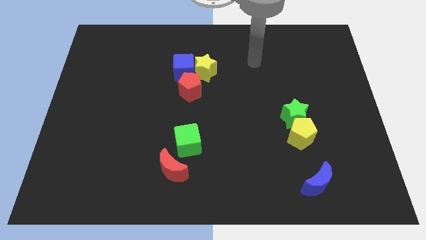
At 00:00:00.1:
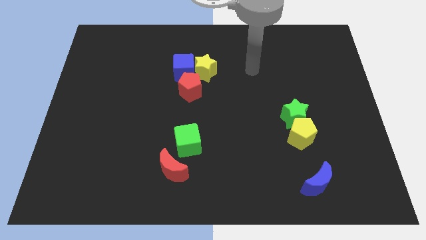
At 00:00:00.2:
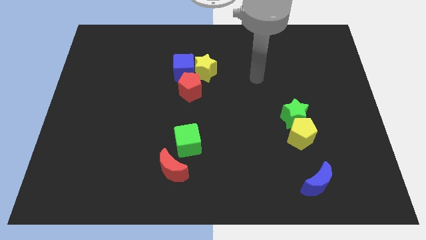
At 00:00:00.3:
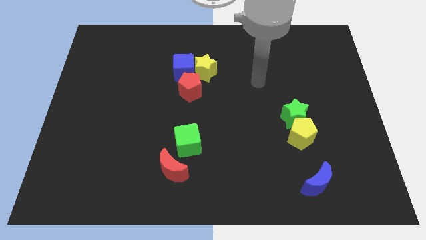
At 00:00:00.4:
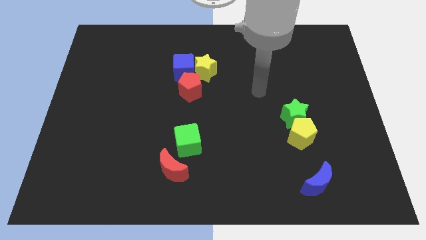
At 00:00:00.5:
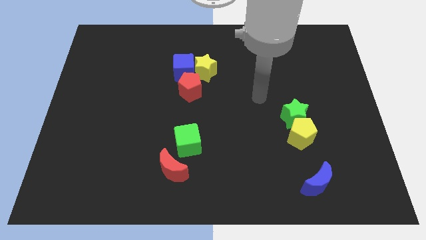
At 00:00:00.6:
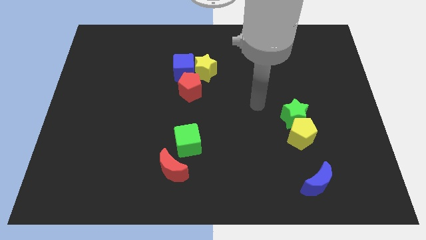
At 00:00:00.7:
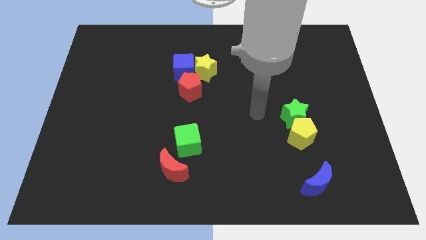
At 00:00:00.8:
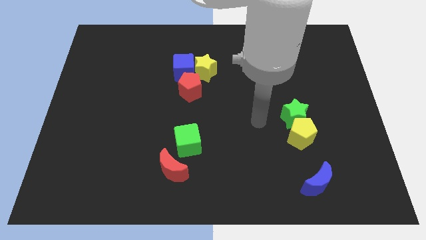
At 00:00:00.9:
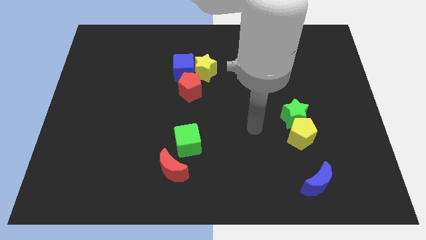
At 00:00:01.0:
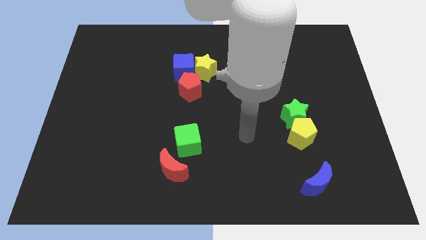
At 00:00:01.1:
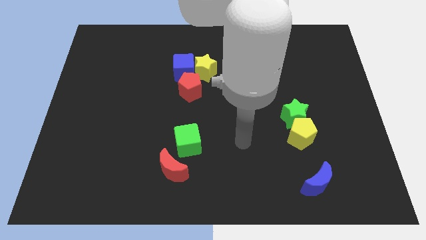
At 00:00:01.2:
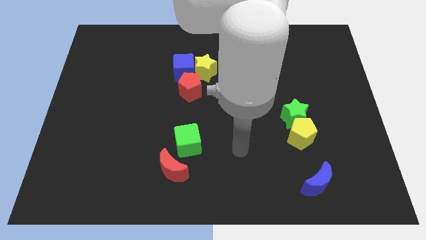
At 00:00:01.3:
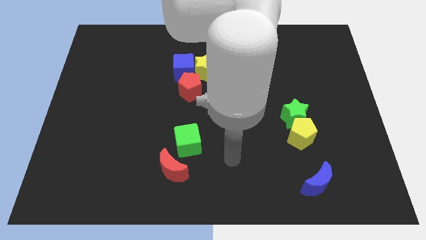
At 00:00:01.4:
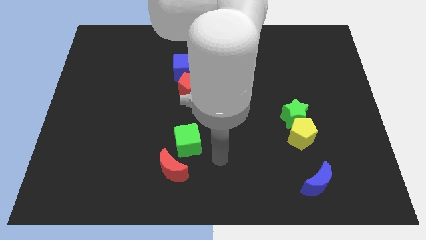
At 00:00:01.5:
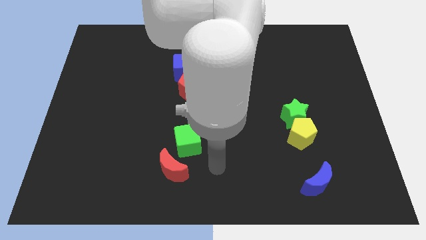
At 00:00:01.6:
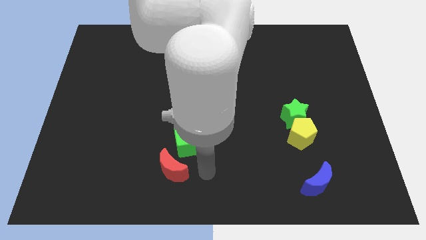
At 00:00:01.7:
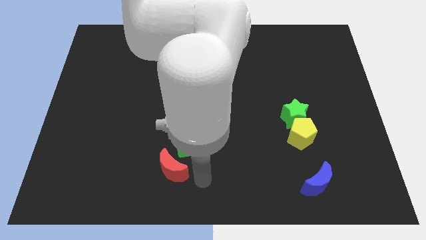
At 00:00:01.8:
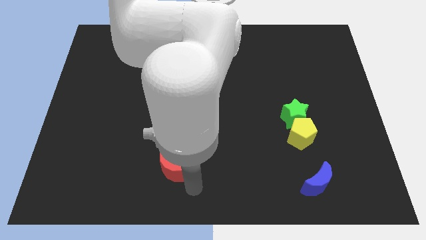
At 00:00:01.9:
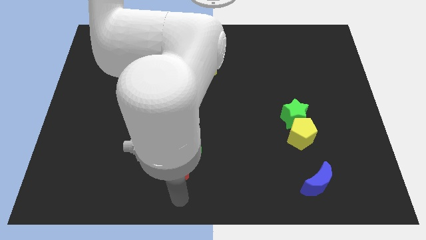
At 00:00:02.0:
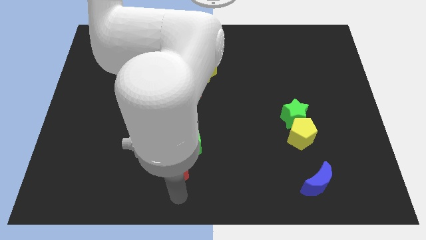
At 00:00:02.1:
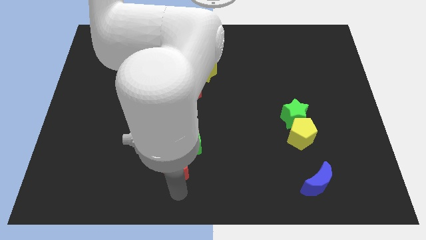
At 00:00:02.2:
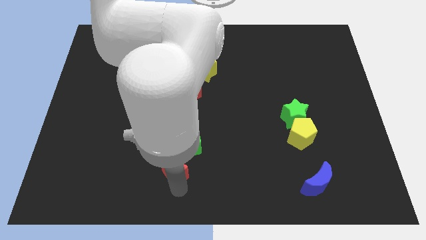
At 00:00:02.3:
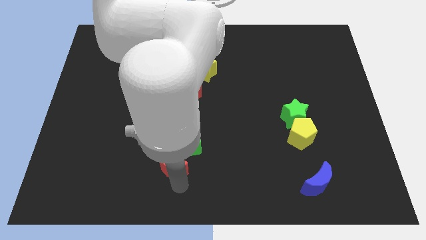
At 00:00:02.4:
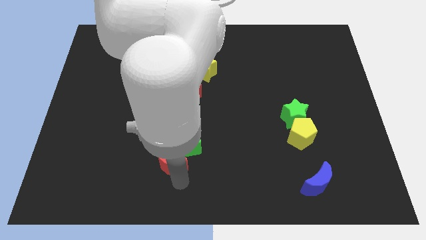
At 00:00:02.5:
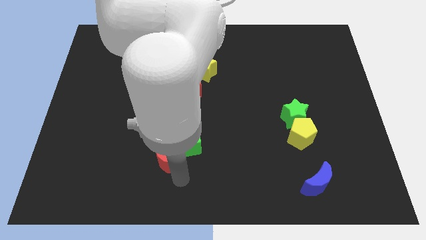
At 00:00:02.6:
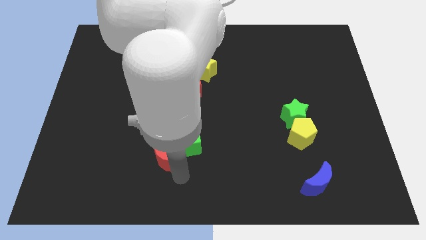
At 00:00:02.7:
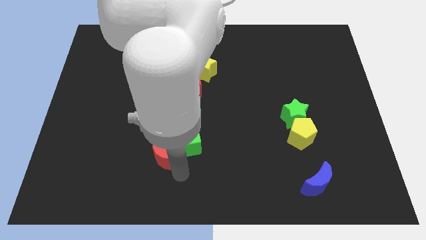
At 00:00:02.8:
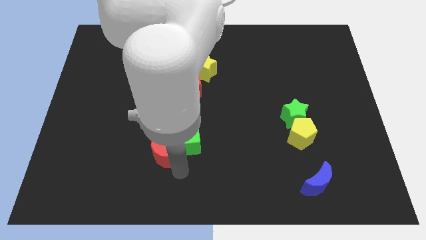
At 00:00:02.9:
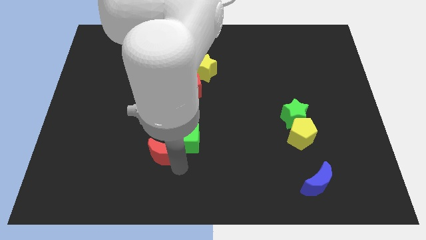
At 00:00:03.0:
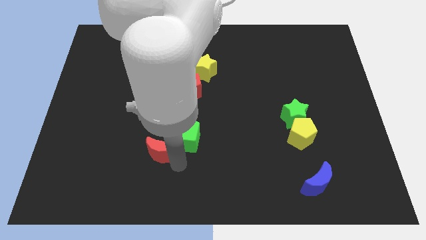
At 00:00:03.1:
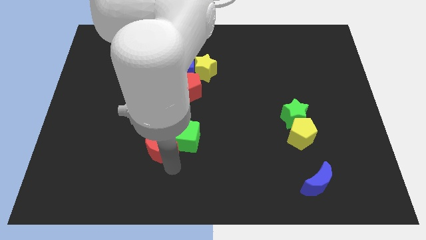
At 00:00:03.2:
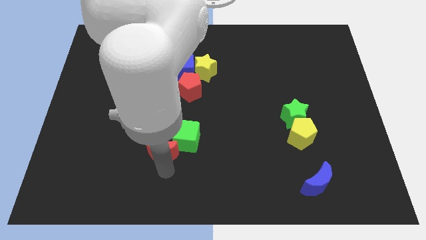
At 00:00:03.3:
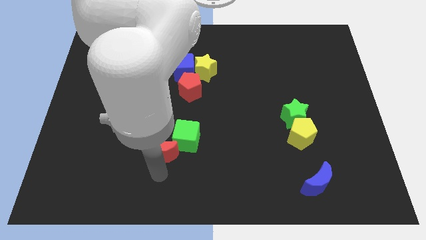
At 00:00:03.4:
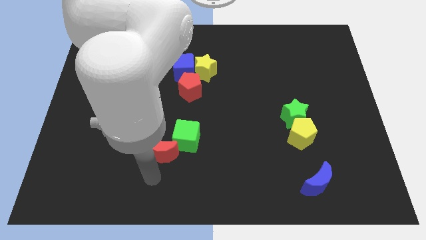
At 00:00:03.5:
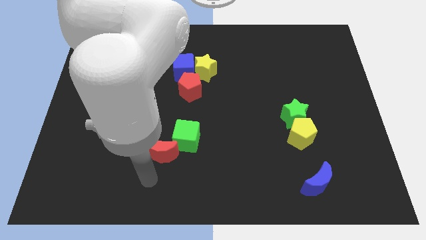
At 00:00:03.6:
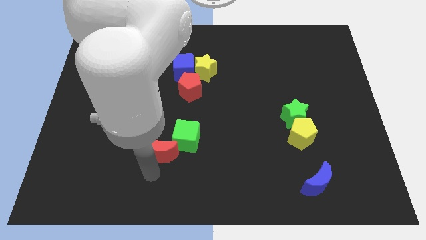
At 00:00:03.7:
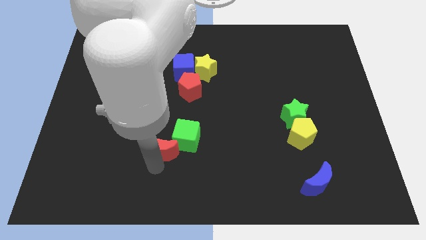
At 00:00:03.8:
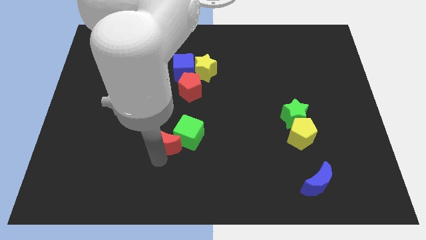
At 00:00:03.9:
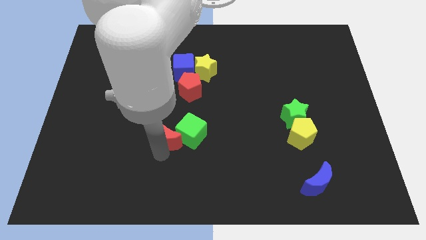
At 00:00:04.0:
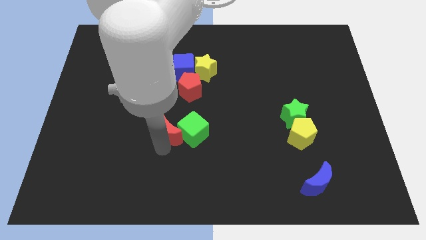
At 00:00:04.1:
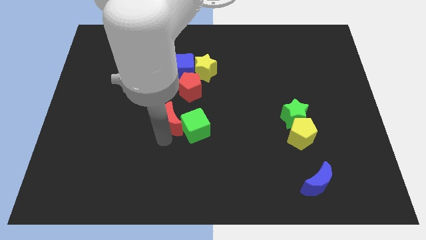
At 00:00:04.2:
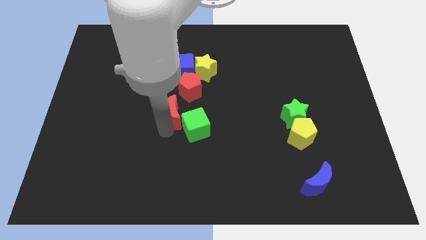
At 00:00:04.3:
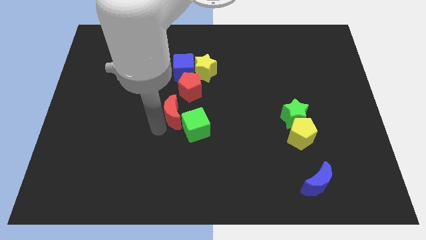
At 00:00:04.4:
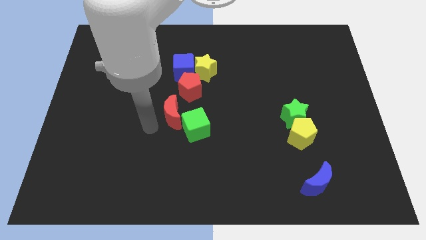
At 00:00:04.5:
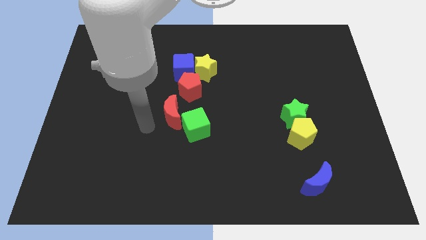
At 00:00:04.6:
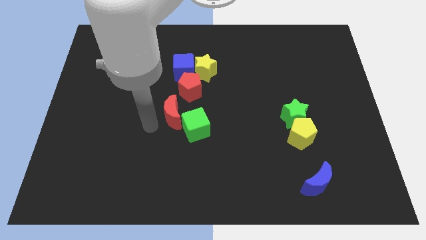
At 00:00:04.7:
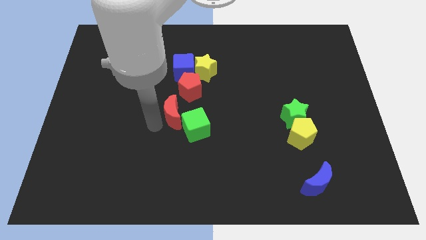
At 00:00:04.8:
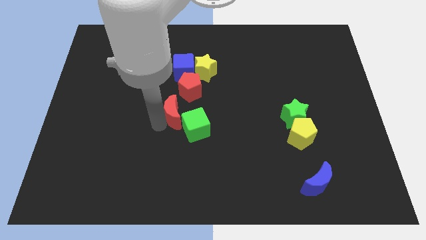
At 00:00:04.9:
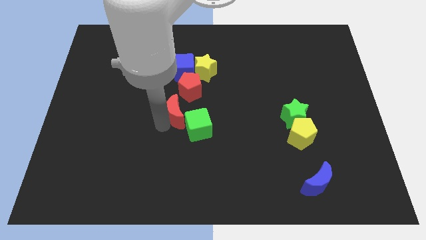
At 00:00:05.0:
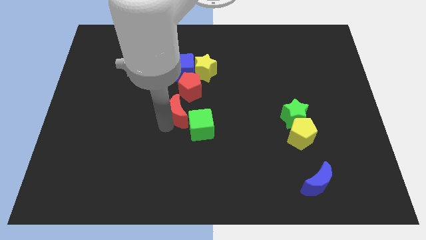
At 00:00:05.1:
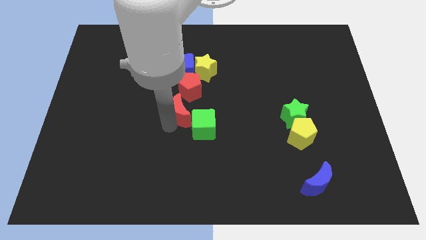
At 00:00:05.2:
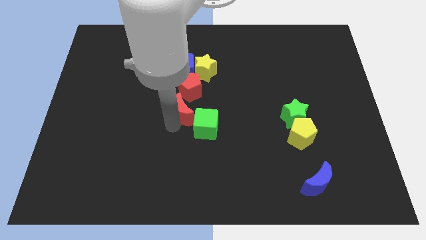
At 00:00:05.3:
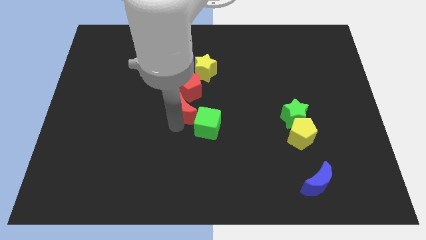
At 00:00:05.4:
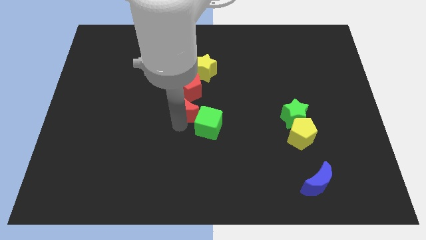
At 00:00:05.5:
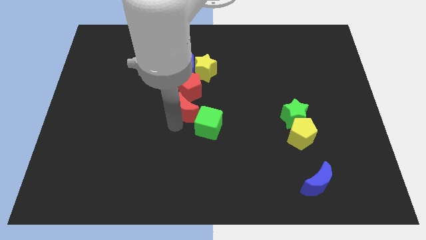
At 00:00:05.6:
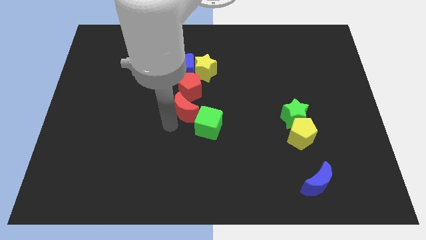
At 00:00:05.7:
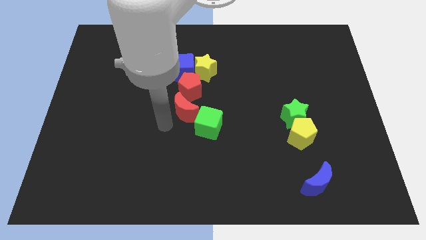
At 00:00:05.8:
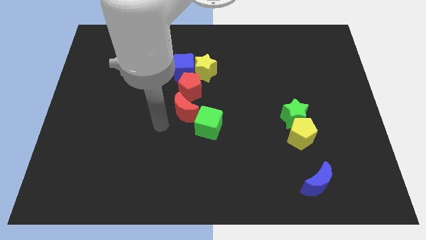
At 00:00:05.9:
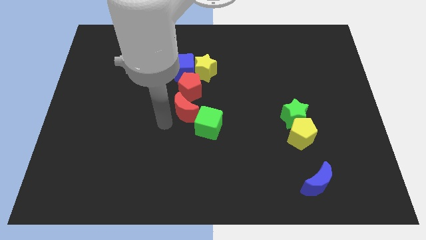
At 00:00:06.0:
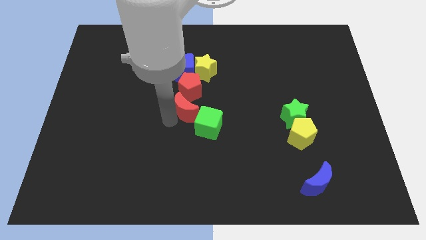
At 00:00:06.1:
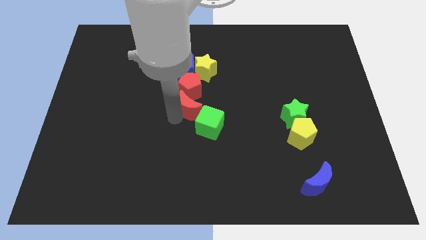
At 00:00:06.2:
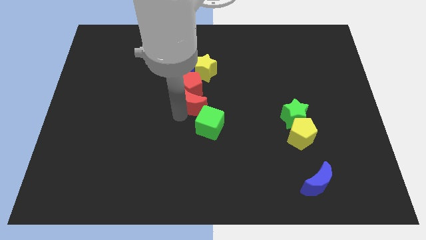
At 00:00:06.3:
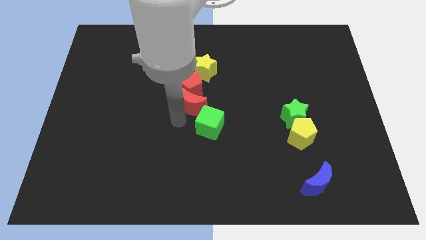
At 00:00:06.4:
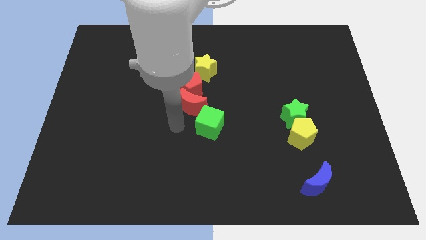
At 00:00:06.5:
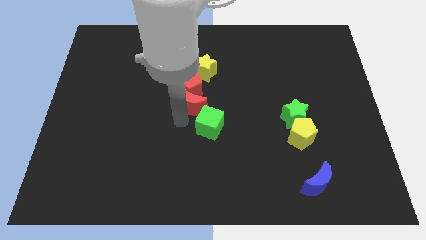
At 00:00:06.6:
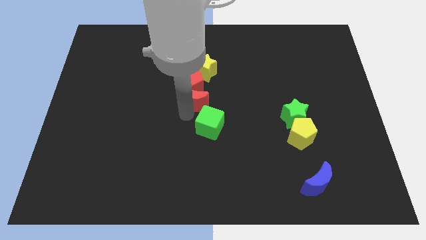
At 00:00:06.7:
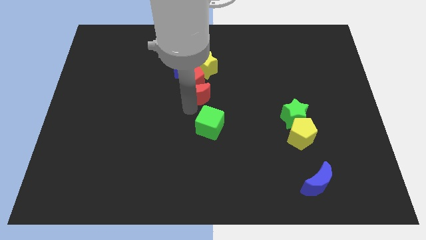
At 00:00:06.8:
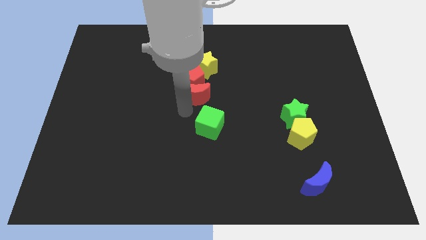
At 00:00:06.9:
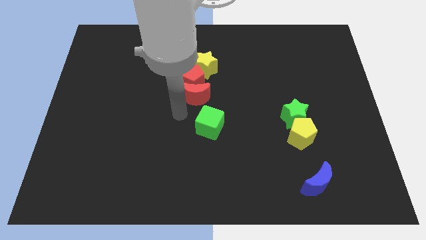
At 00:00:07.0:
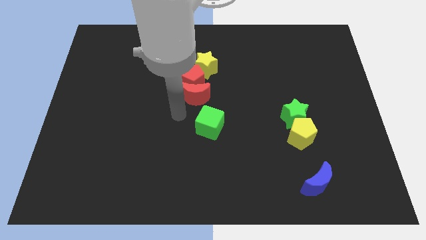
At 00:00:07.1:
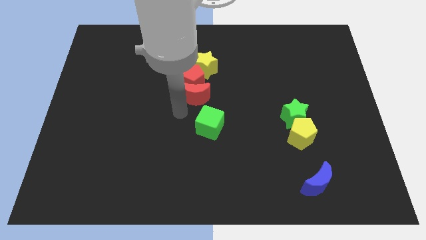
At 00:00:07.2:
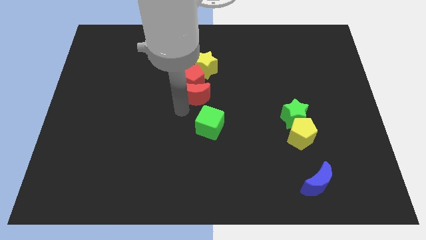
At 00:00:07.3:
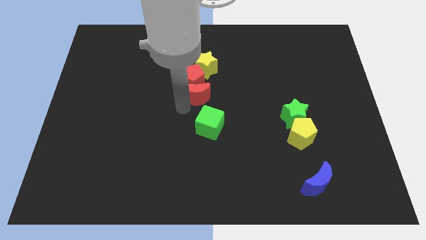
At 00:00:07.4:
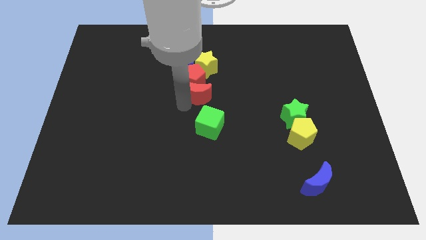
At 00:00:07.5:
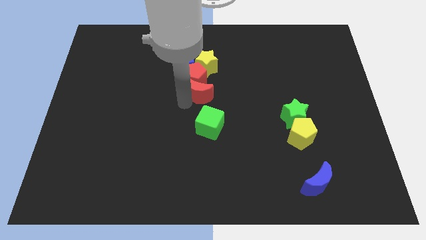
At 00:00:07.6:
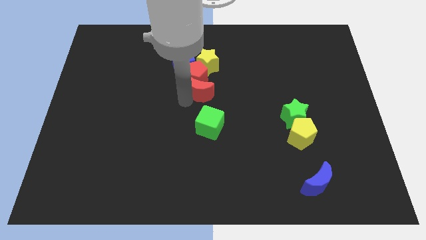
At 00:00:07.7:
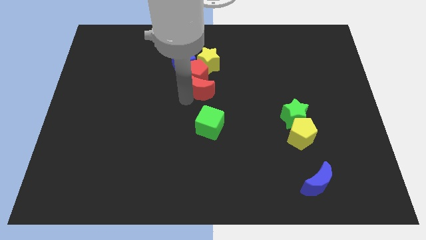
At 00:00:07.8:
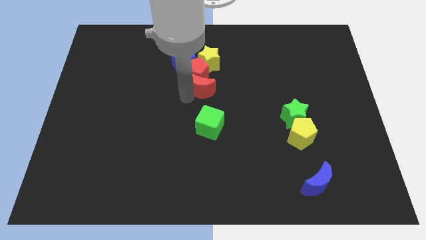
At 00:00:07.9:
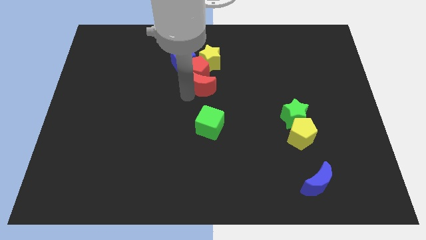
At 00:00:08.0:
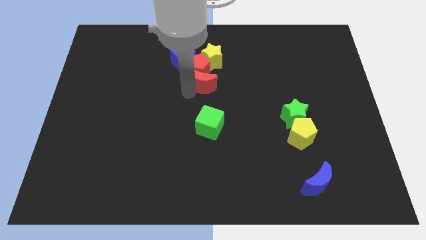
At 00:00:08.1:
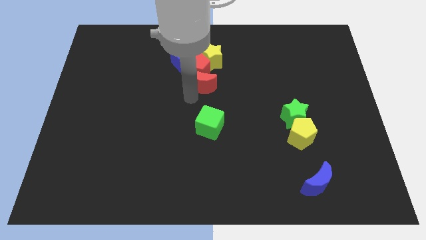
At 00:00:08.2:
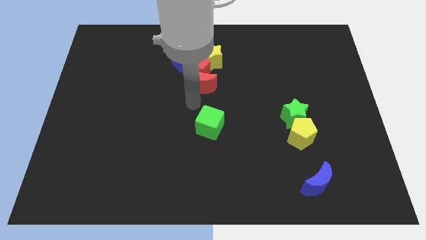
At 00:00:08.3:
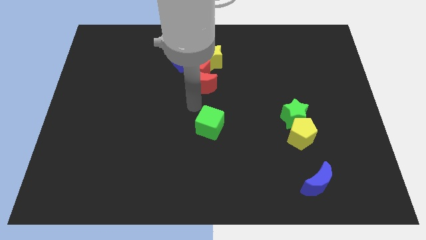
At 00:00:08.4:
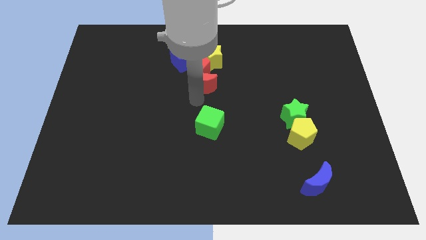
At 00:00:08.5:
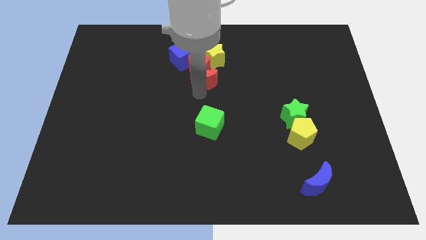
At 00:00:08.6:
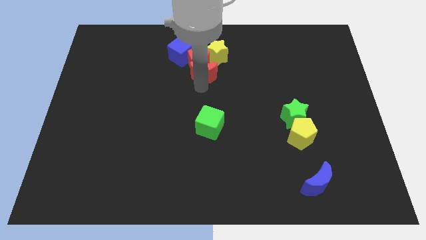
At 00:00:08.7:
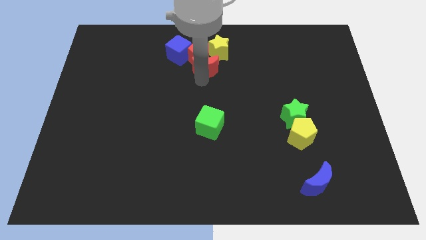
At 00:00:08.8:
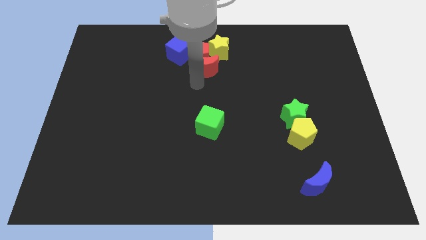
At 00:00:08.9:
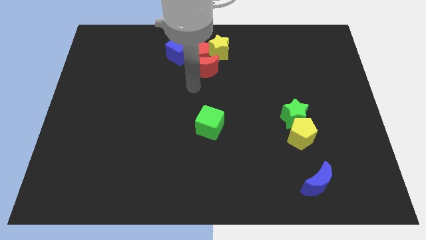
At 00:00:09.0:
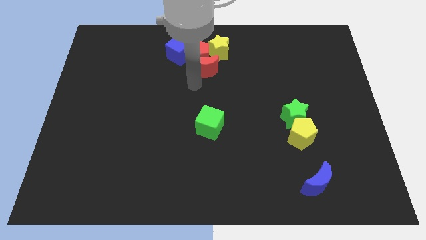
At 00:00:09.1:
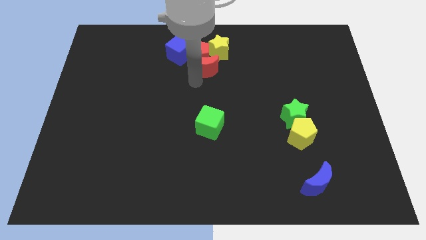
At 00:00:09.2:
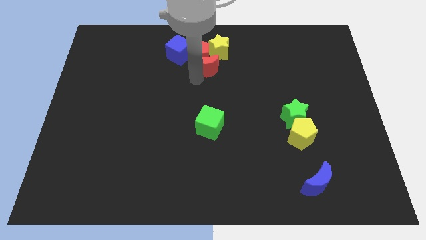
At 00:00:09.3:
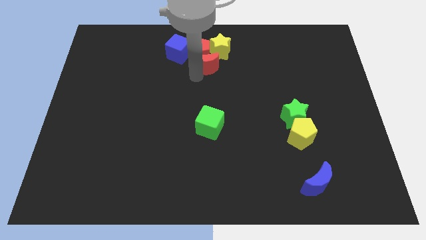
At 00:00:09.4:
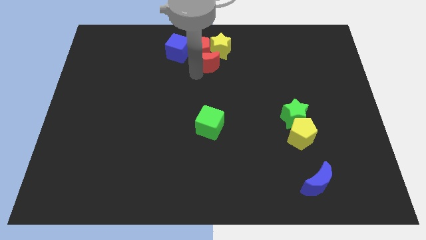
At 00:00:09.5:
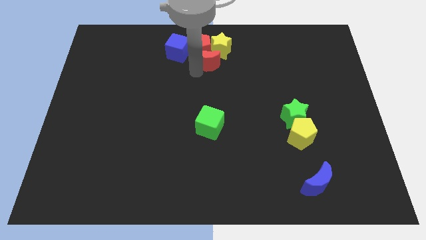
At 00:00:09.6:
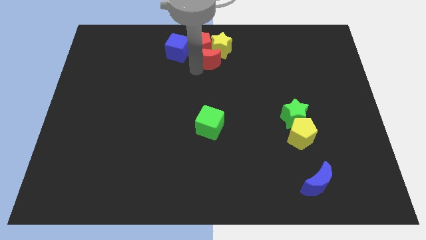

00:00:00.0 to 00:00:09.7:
push the red moon towards the yellow star
